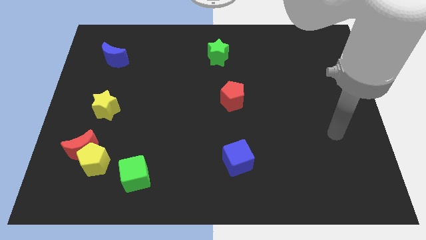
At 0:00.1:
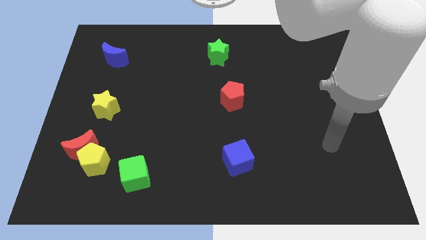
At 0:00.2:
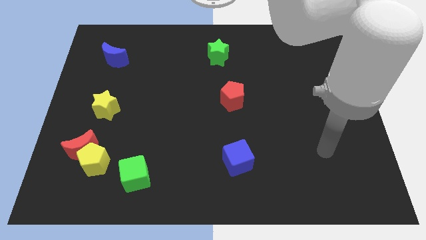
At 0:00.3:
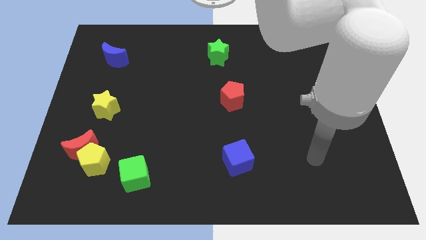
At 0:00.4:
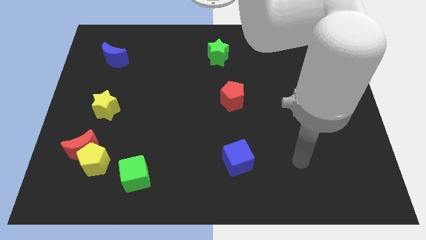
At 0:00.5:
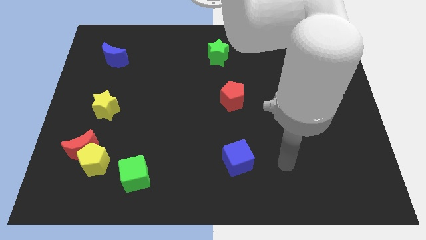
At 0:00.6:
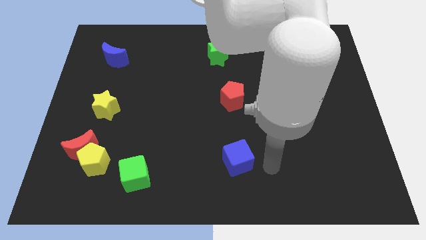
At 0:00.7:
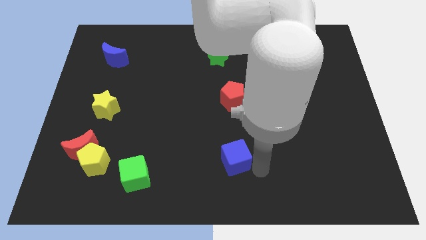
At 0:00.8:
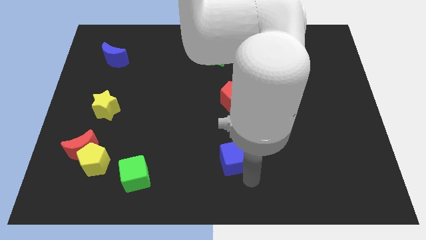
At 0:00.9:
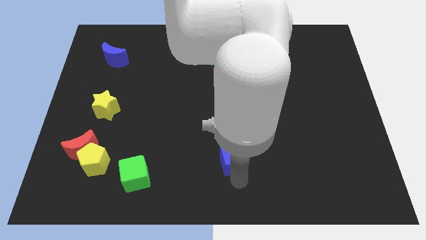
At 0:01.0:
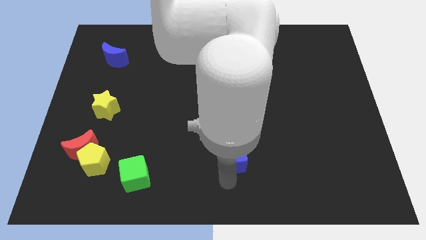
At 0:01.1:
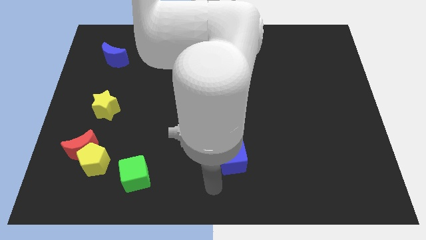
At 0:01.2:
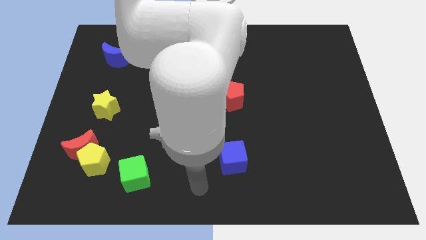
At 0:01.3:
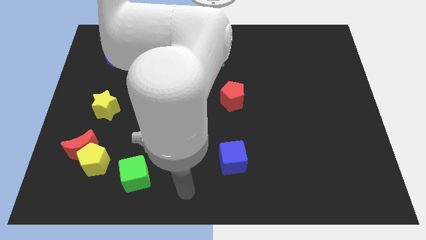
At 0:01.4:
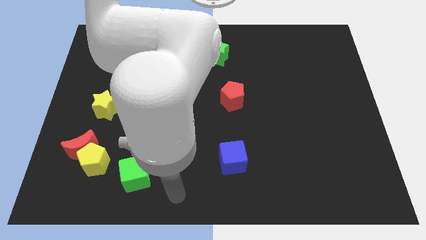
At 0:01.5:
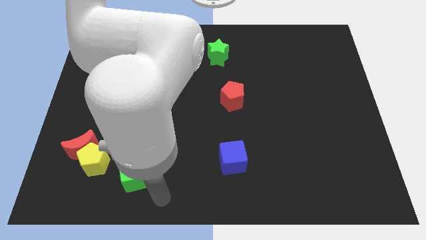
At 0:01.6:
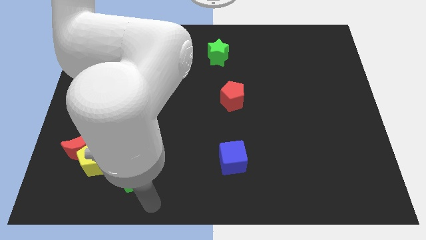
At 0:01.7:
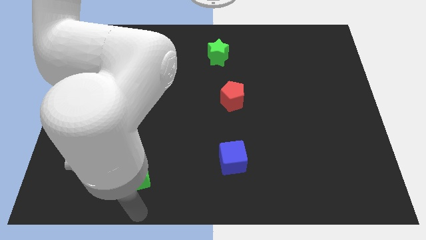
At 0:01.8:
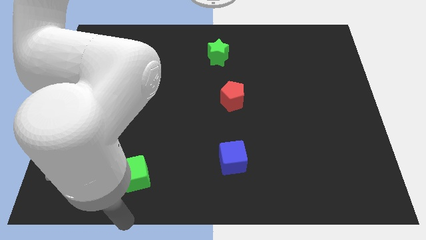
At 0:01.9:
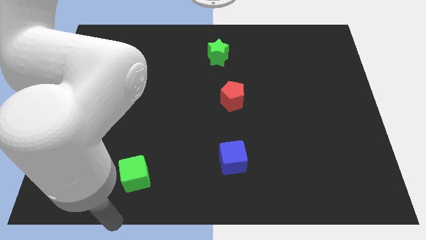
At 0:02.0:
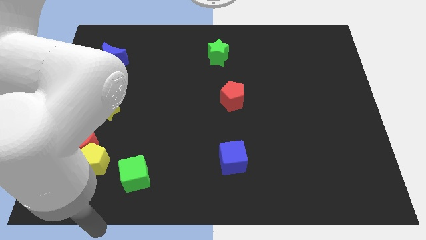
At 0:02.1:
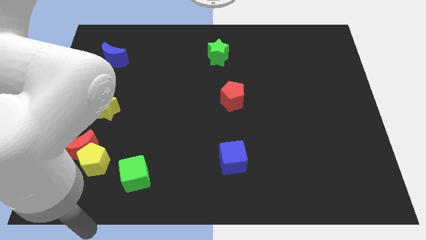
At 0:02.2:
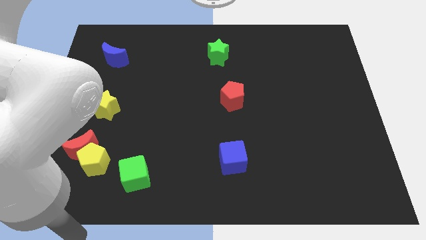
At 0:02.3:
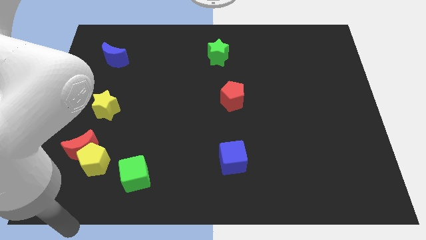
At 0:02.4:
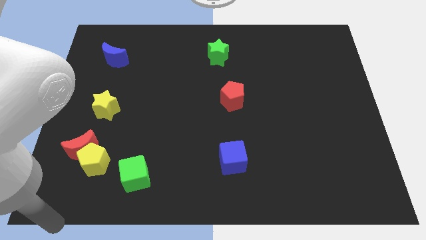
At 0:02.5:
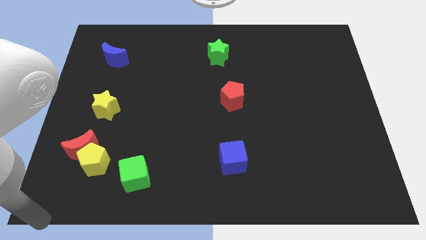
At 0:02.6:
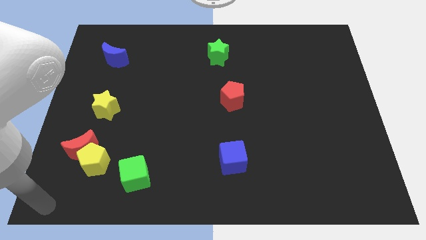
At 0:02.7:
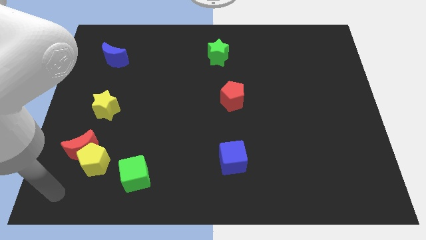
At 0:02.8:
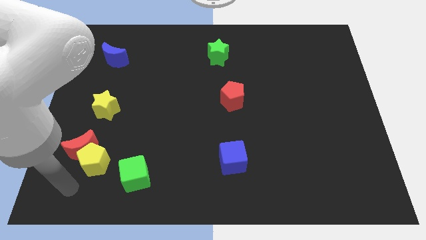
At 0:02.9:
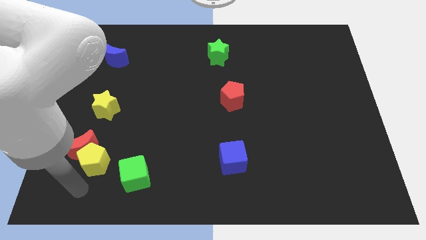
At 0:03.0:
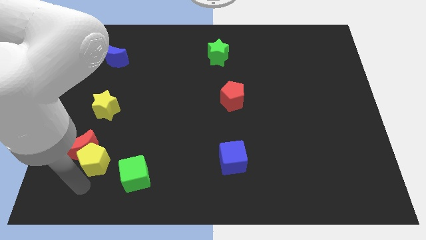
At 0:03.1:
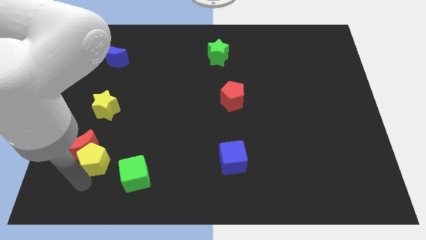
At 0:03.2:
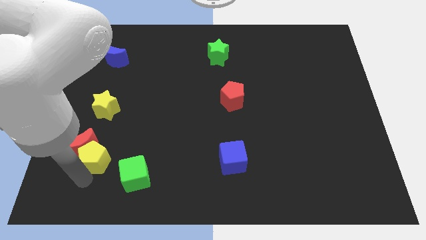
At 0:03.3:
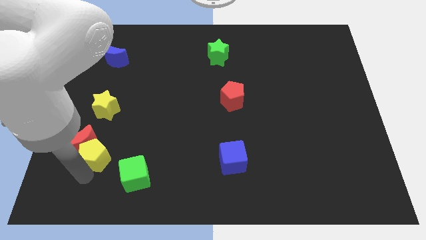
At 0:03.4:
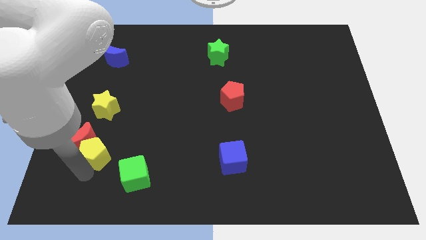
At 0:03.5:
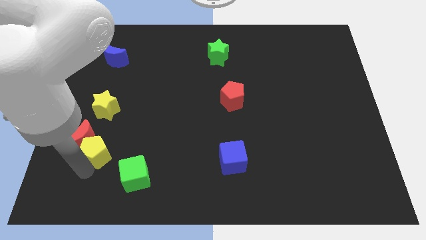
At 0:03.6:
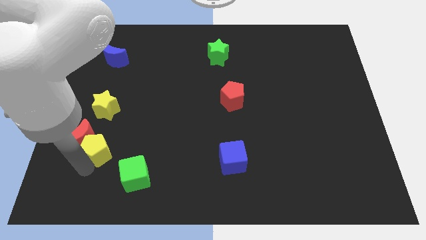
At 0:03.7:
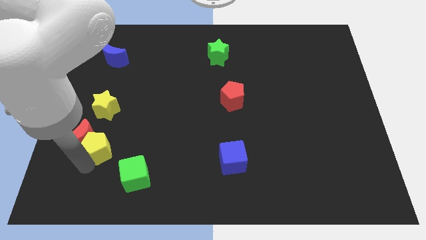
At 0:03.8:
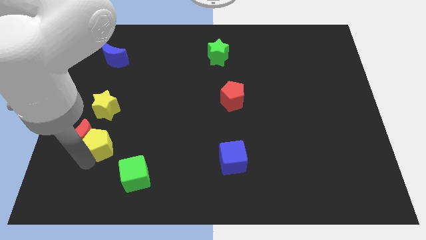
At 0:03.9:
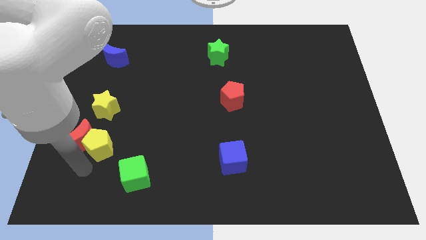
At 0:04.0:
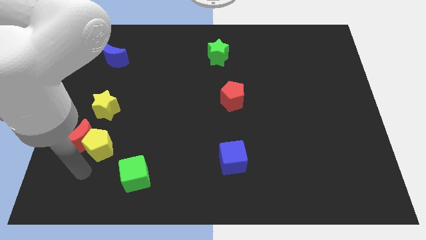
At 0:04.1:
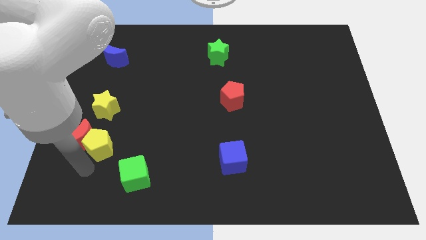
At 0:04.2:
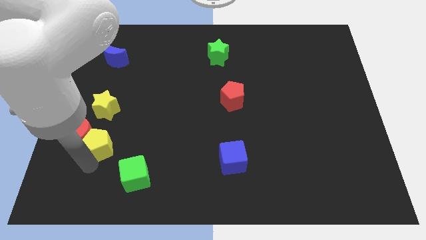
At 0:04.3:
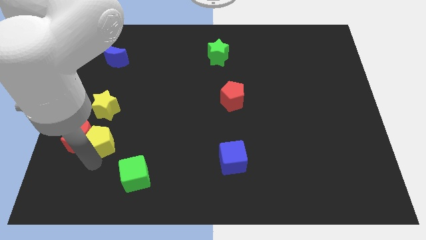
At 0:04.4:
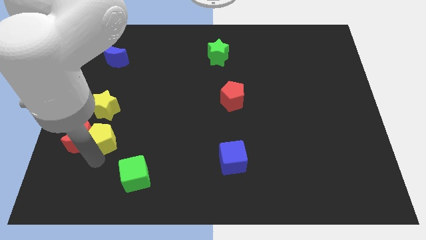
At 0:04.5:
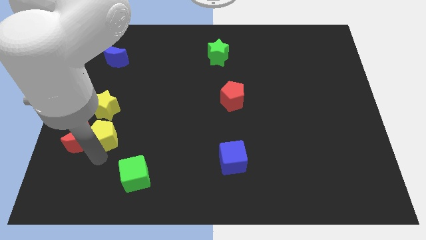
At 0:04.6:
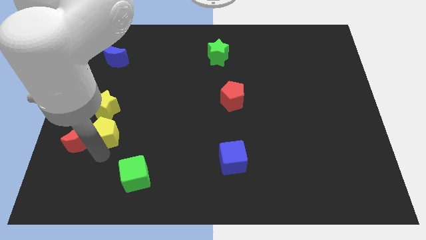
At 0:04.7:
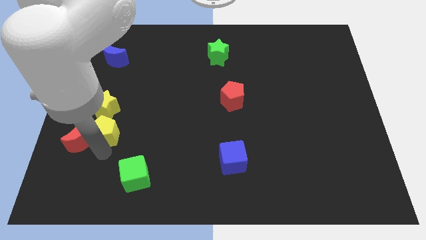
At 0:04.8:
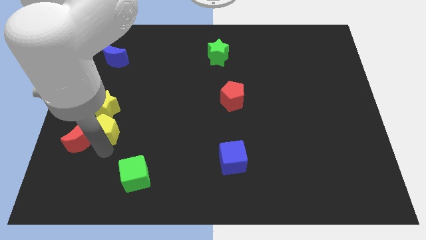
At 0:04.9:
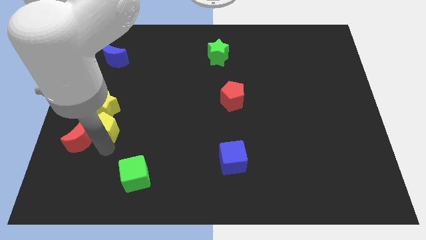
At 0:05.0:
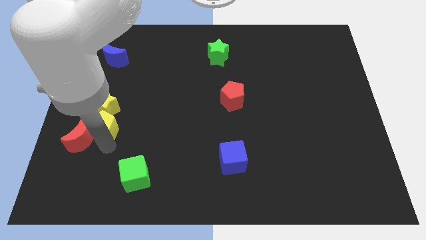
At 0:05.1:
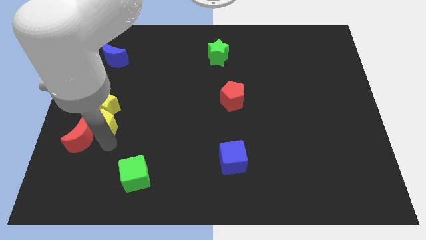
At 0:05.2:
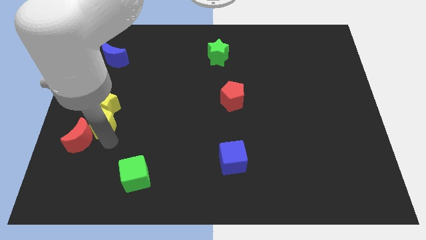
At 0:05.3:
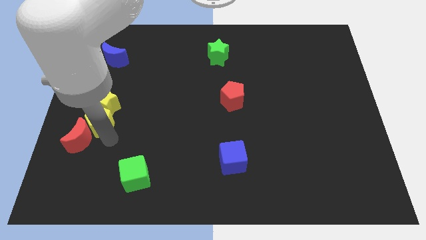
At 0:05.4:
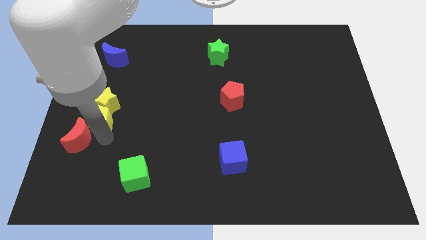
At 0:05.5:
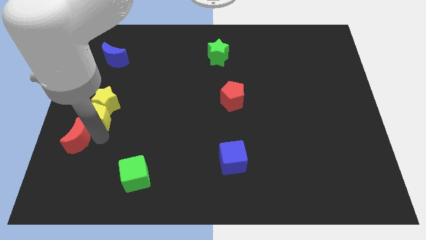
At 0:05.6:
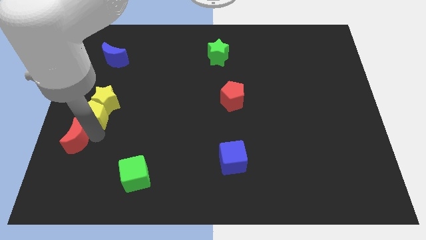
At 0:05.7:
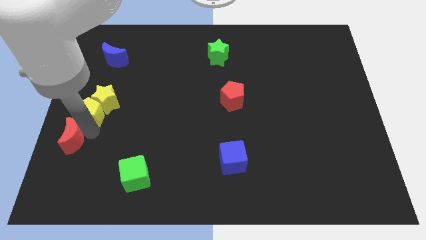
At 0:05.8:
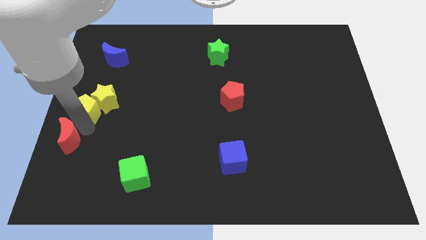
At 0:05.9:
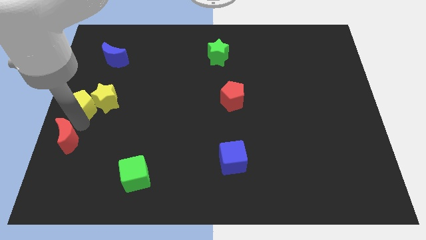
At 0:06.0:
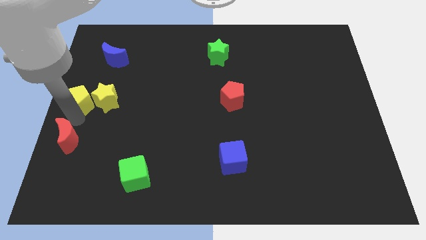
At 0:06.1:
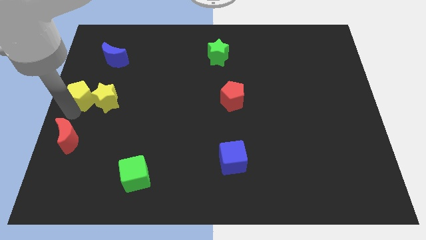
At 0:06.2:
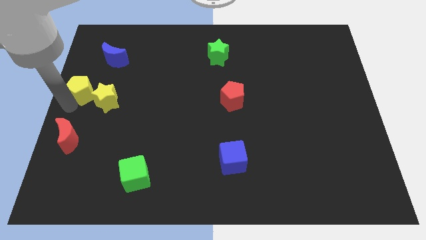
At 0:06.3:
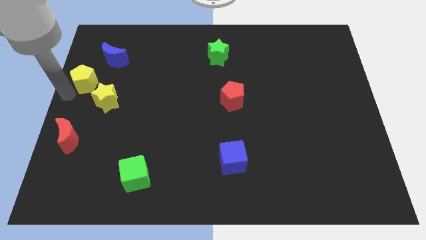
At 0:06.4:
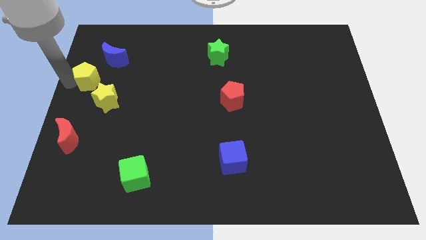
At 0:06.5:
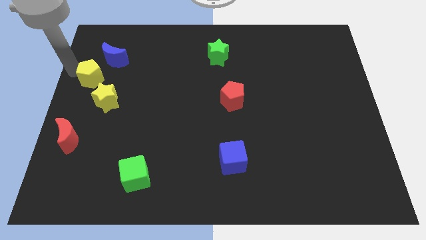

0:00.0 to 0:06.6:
push the yellow pentagon to the bottom side of the blue moon

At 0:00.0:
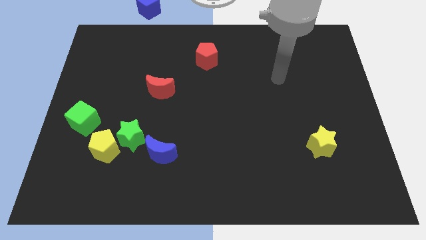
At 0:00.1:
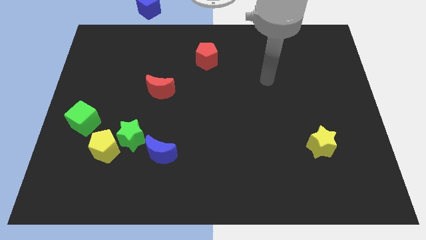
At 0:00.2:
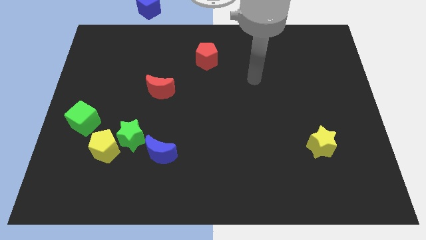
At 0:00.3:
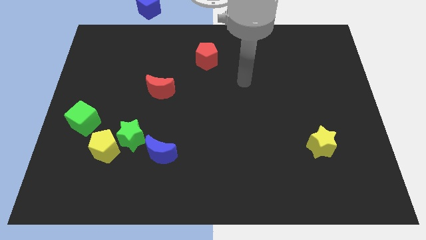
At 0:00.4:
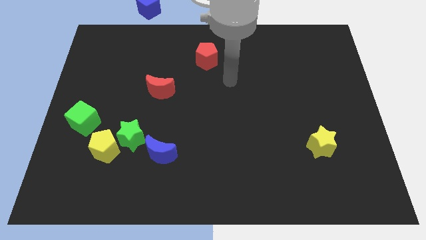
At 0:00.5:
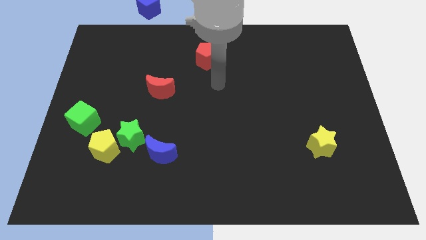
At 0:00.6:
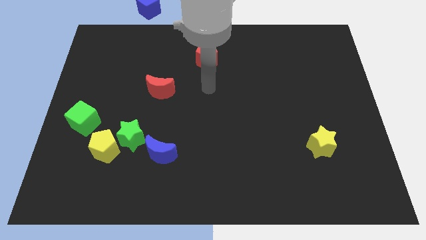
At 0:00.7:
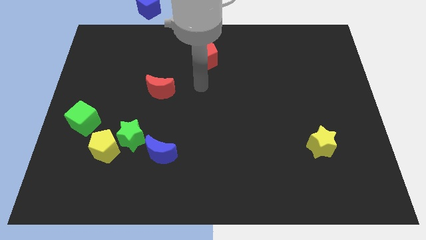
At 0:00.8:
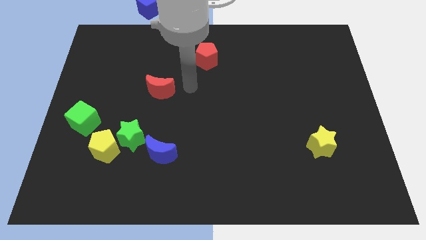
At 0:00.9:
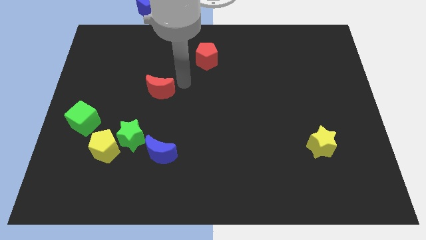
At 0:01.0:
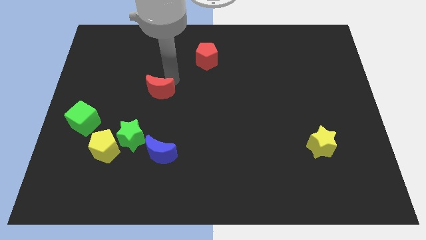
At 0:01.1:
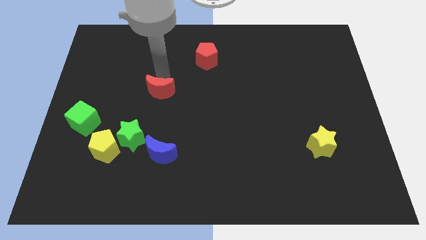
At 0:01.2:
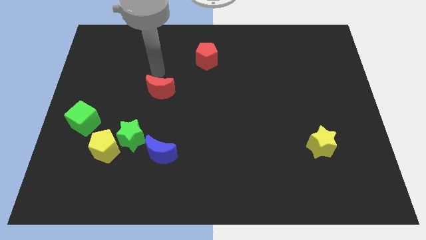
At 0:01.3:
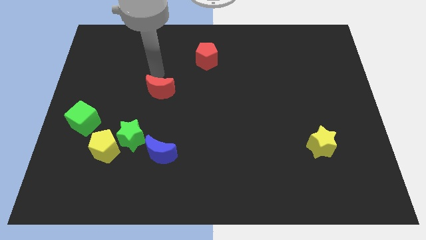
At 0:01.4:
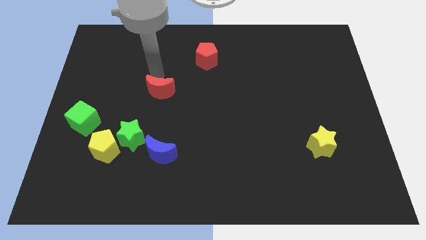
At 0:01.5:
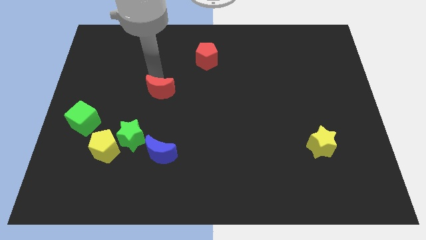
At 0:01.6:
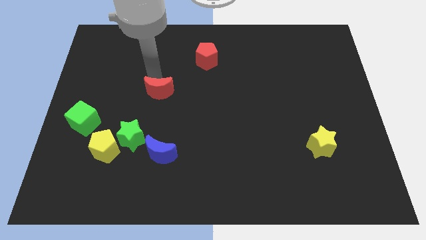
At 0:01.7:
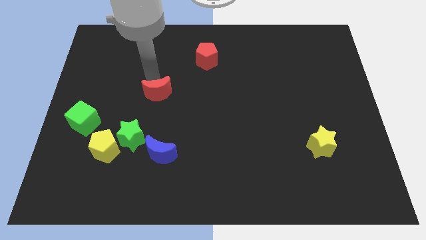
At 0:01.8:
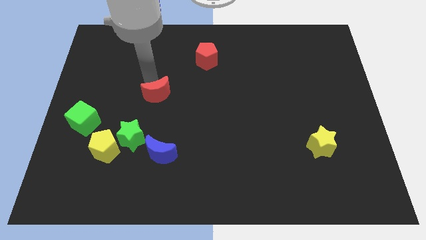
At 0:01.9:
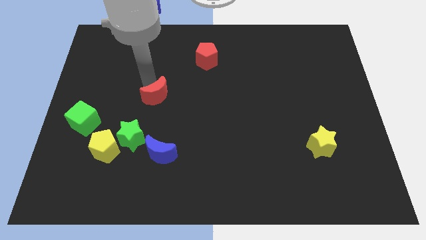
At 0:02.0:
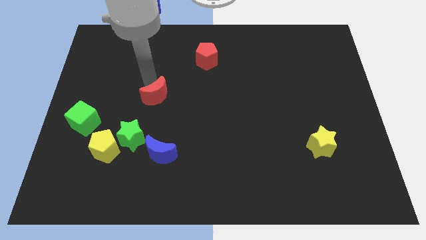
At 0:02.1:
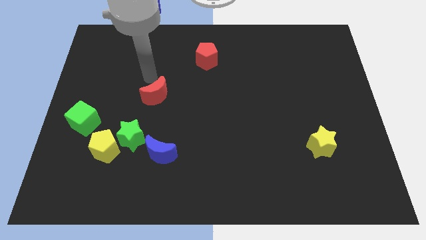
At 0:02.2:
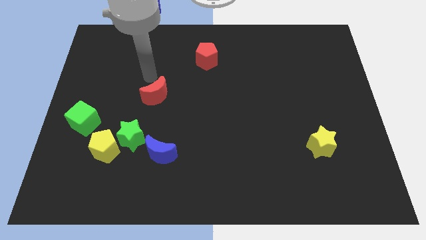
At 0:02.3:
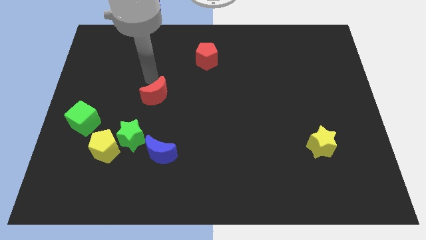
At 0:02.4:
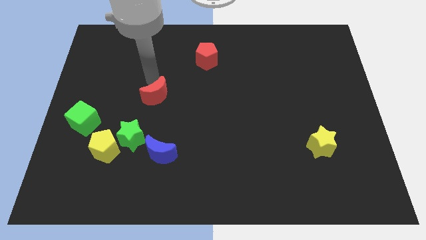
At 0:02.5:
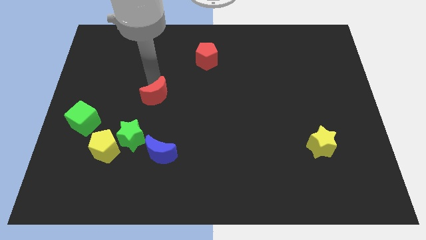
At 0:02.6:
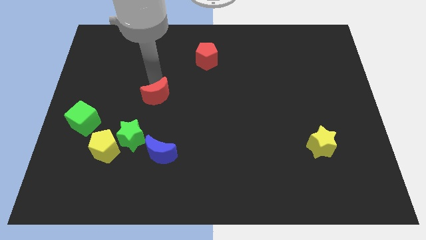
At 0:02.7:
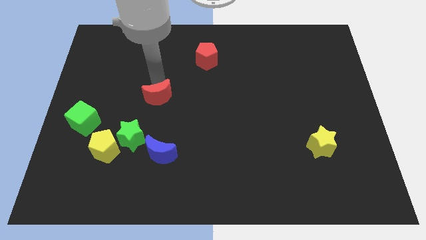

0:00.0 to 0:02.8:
put the red moon to the top of the blue moon
